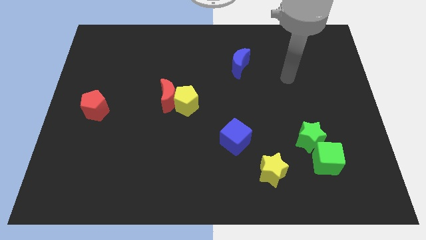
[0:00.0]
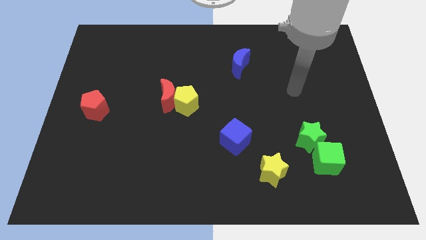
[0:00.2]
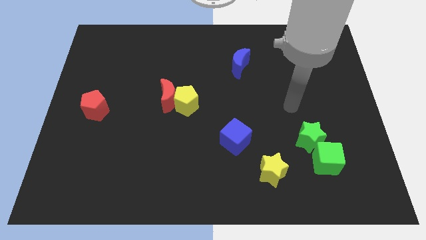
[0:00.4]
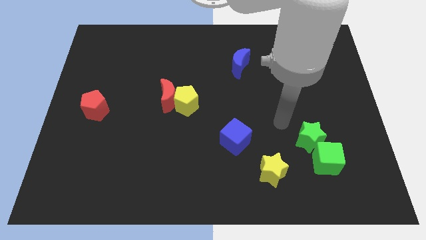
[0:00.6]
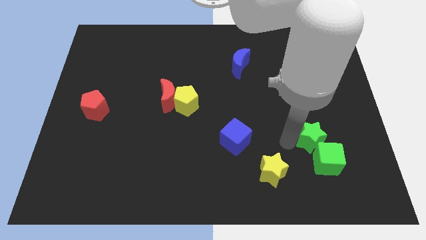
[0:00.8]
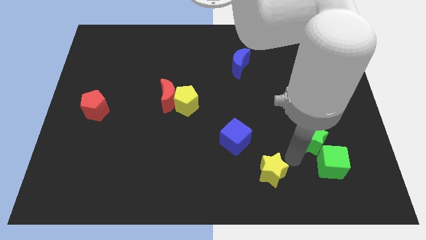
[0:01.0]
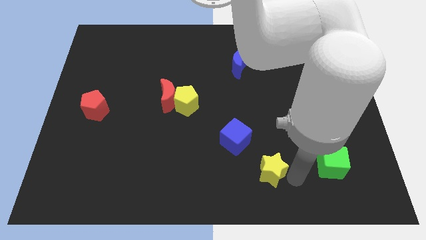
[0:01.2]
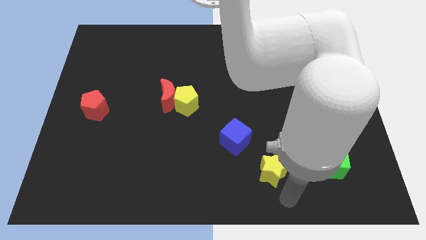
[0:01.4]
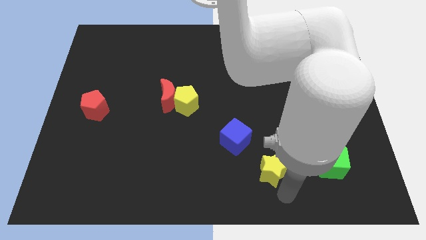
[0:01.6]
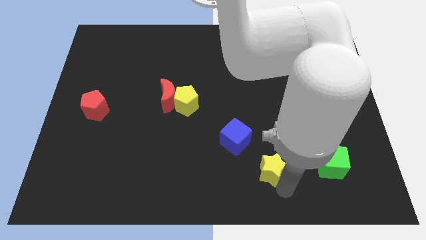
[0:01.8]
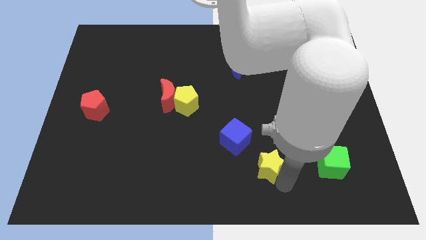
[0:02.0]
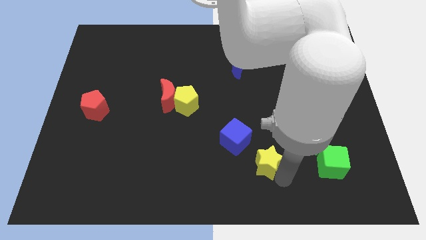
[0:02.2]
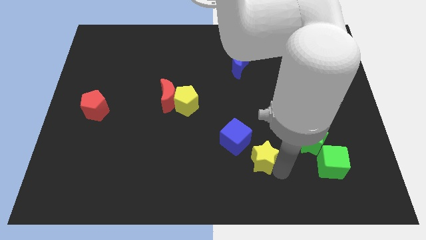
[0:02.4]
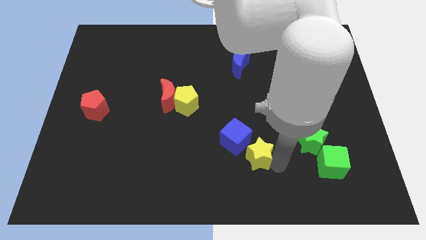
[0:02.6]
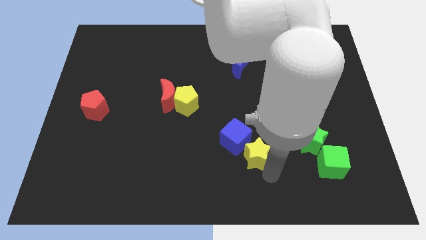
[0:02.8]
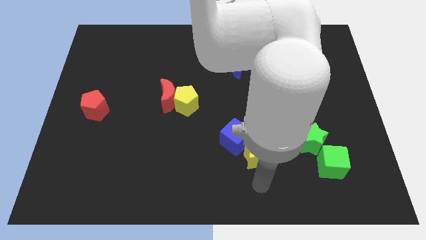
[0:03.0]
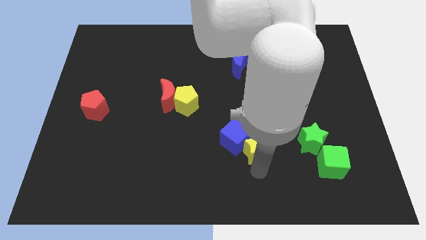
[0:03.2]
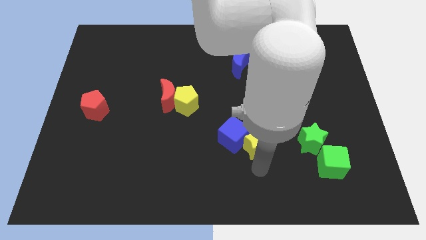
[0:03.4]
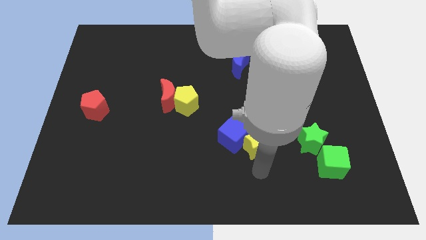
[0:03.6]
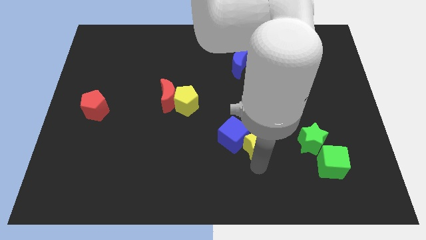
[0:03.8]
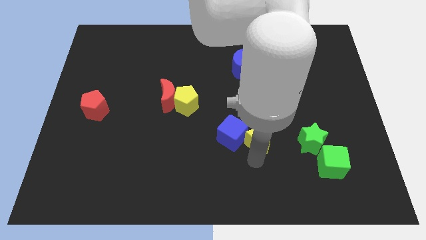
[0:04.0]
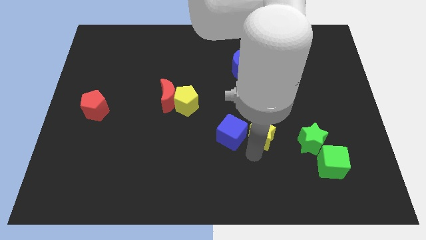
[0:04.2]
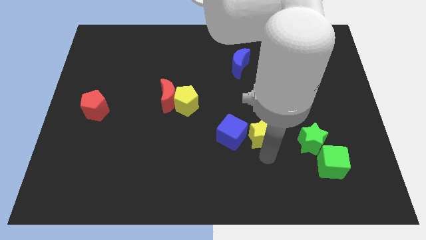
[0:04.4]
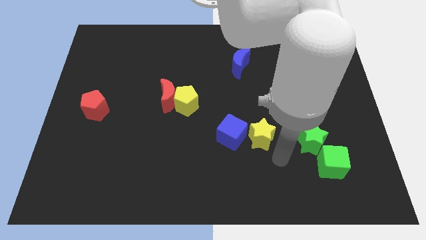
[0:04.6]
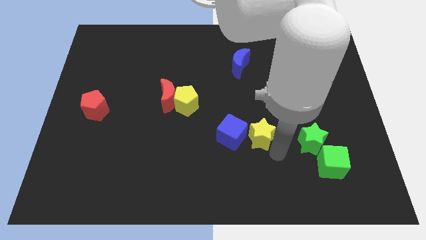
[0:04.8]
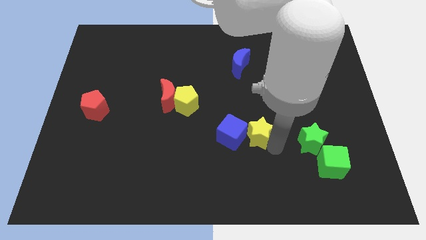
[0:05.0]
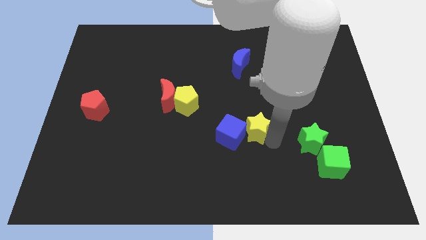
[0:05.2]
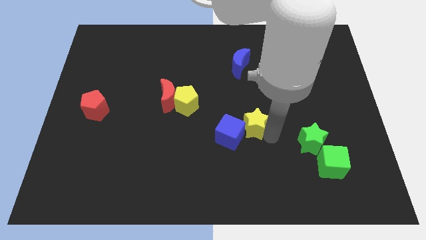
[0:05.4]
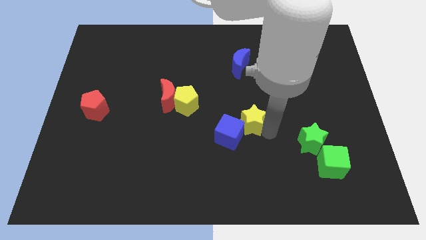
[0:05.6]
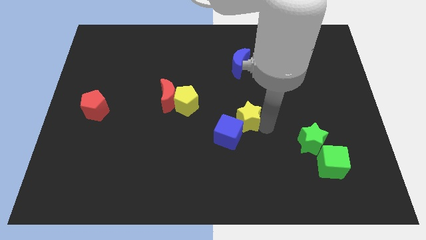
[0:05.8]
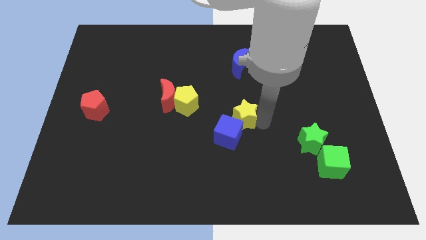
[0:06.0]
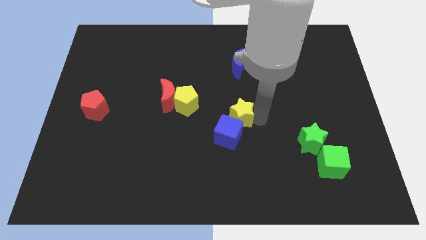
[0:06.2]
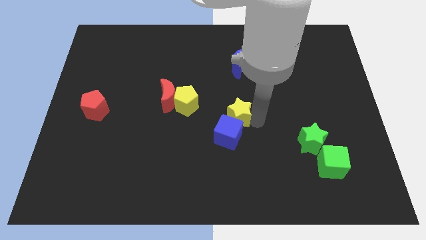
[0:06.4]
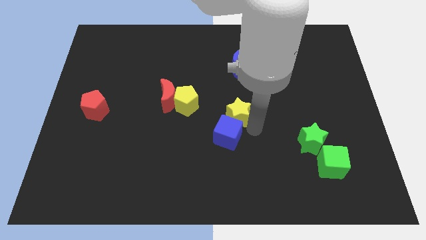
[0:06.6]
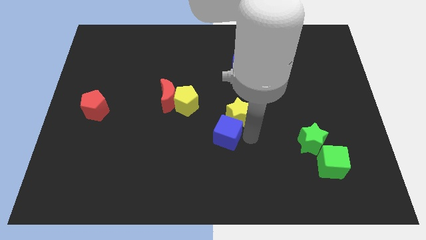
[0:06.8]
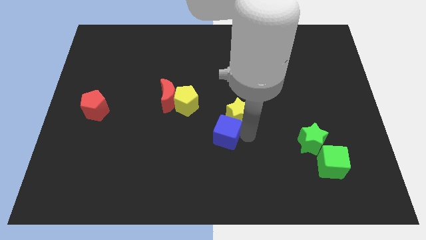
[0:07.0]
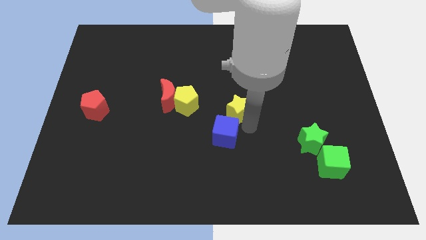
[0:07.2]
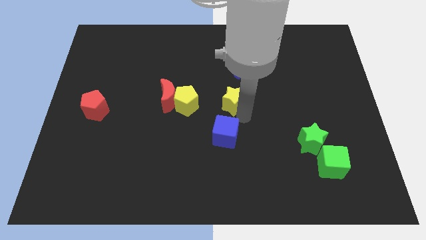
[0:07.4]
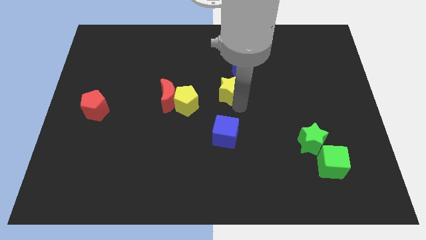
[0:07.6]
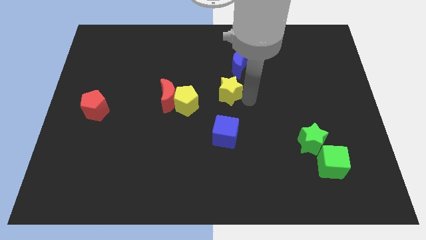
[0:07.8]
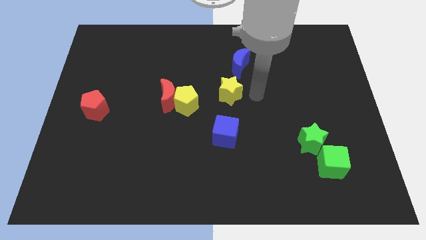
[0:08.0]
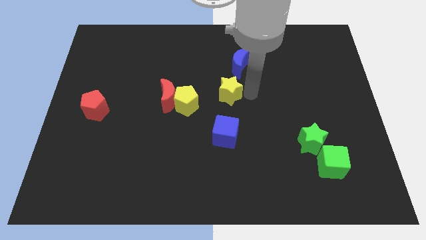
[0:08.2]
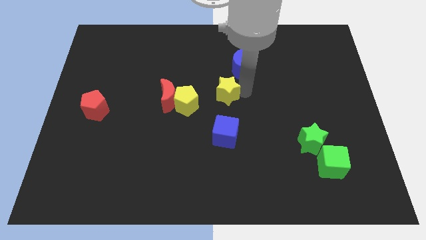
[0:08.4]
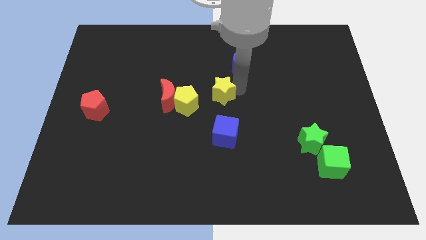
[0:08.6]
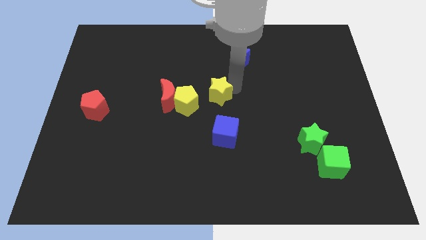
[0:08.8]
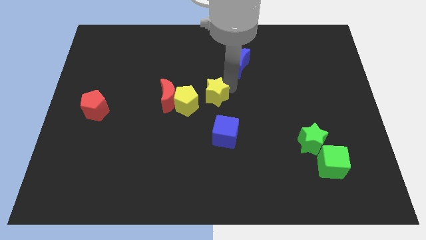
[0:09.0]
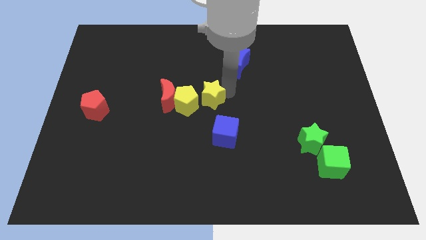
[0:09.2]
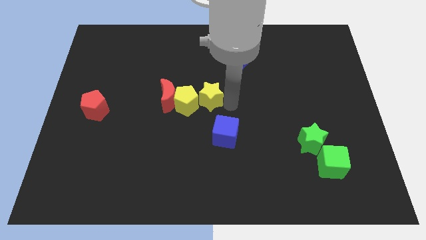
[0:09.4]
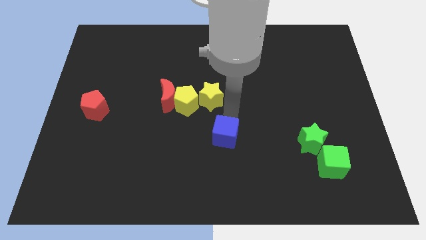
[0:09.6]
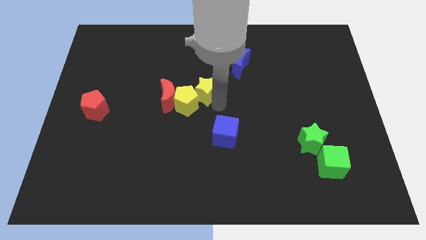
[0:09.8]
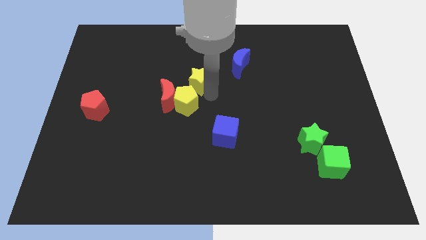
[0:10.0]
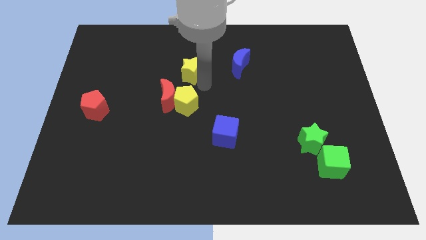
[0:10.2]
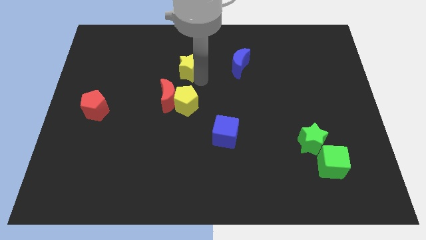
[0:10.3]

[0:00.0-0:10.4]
push the yellow star to the top of the red moon
